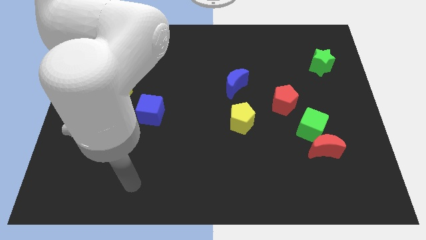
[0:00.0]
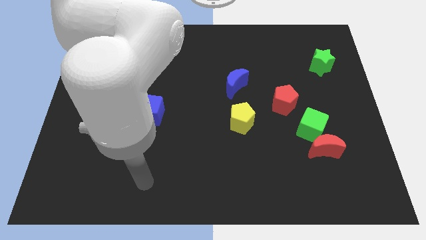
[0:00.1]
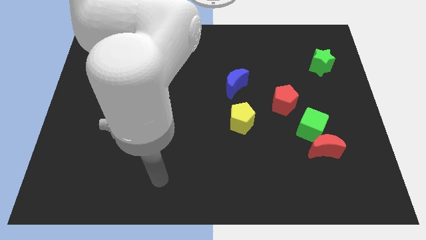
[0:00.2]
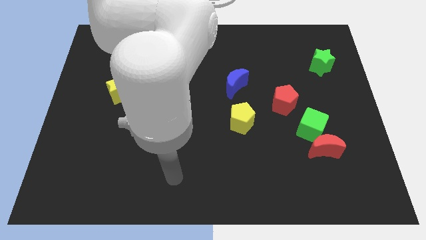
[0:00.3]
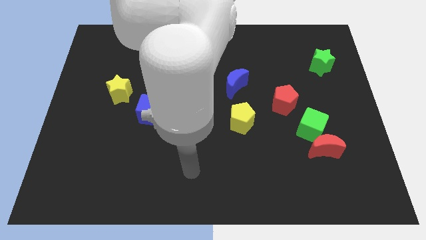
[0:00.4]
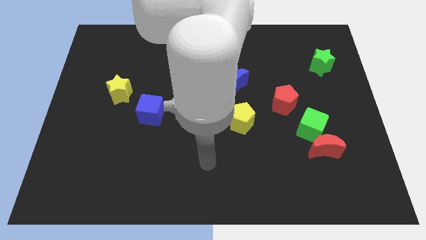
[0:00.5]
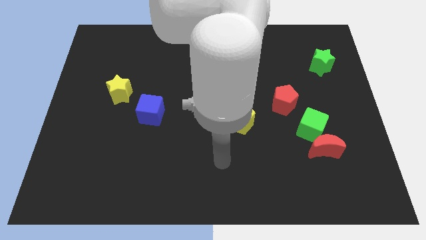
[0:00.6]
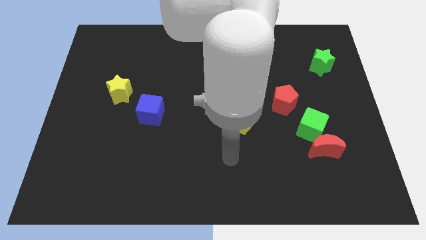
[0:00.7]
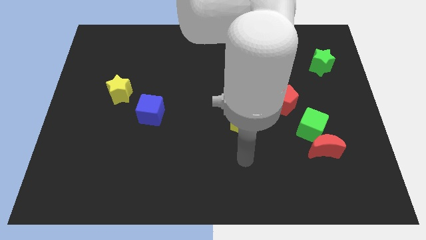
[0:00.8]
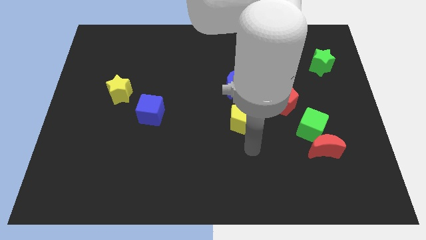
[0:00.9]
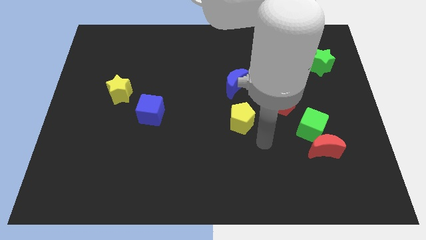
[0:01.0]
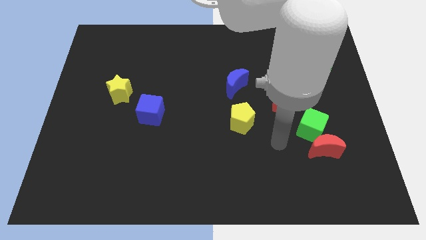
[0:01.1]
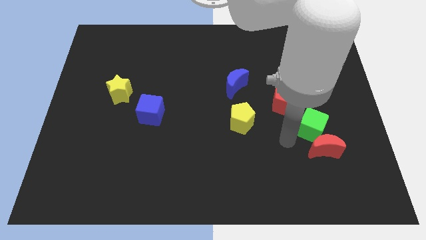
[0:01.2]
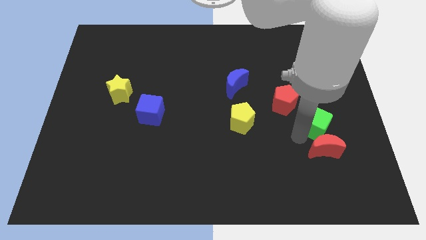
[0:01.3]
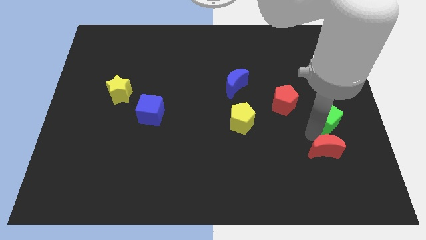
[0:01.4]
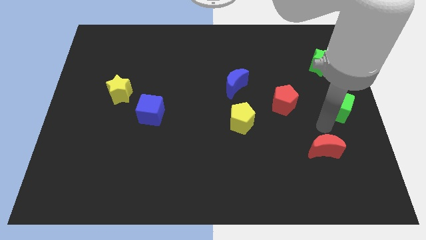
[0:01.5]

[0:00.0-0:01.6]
pull the red moon apart from the green cube

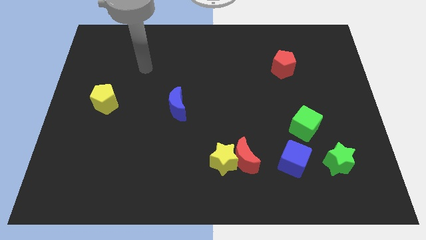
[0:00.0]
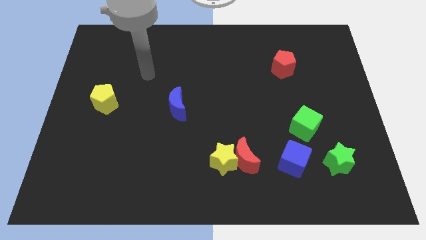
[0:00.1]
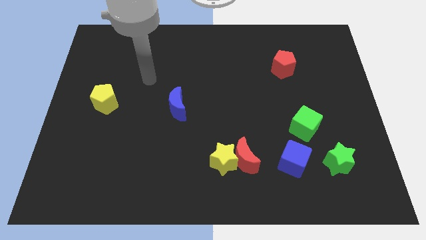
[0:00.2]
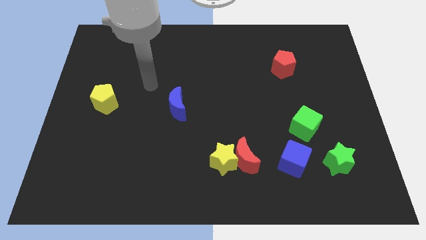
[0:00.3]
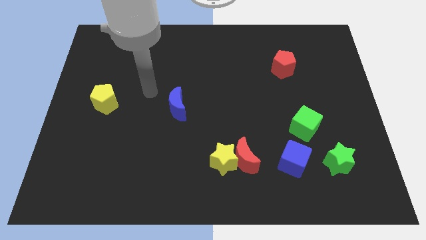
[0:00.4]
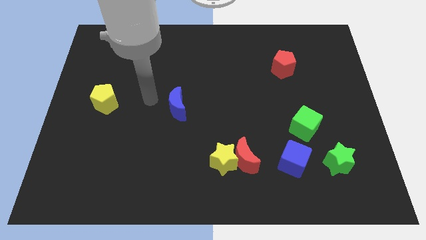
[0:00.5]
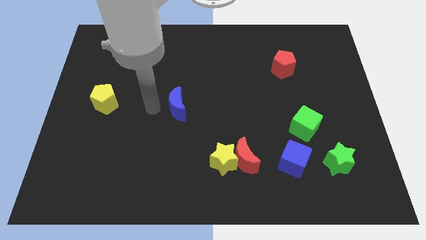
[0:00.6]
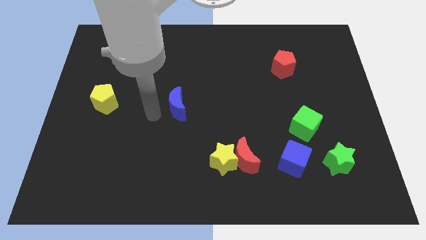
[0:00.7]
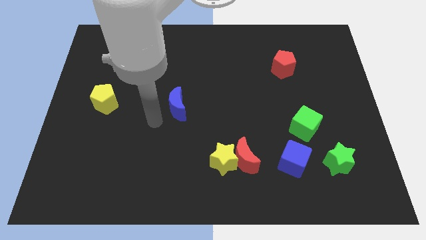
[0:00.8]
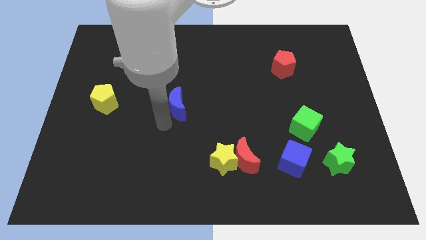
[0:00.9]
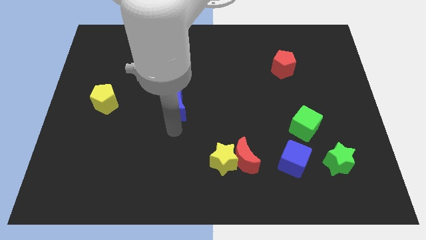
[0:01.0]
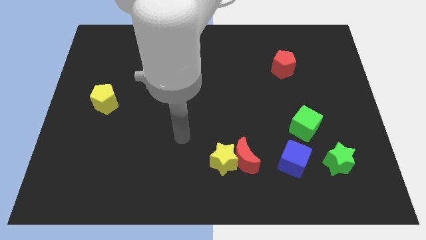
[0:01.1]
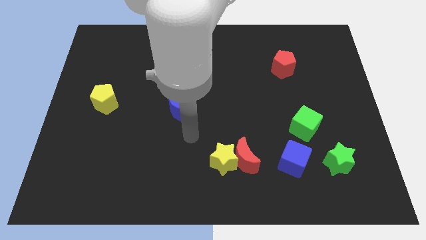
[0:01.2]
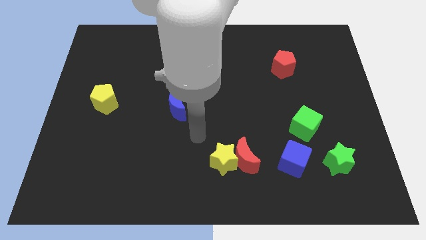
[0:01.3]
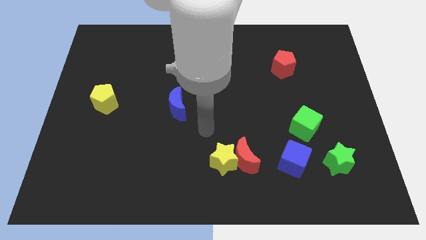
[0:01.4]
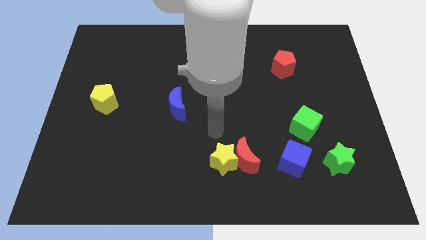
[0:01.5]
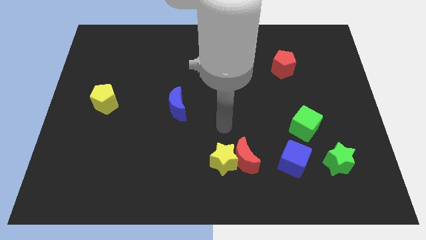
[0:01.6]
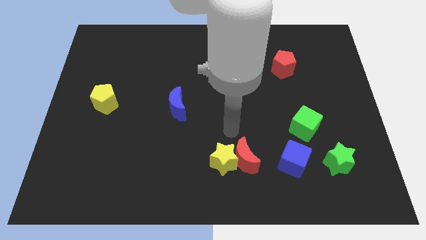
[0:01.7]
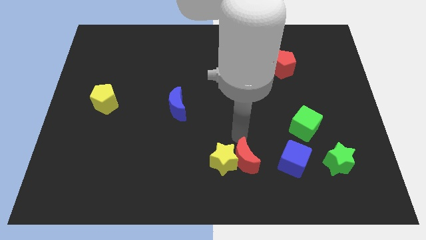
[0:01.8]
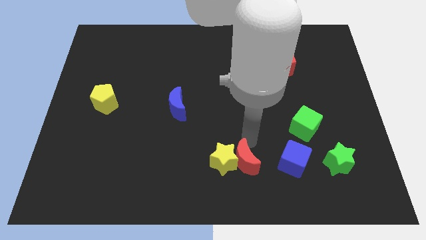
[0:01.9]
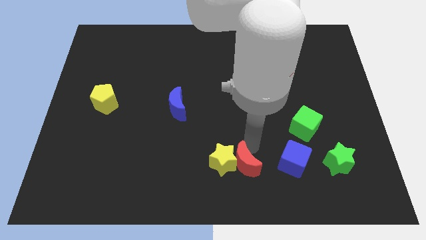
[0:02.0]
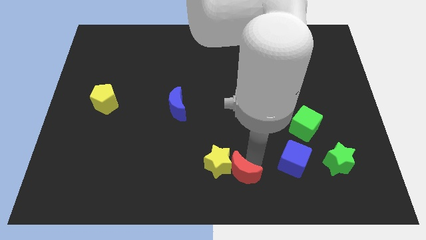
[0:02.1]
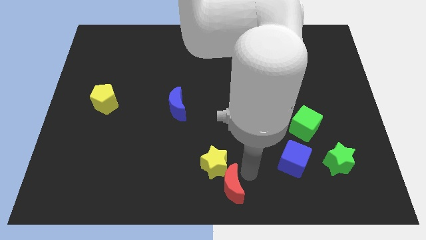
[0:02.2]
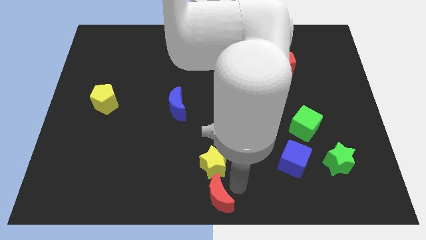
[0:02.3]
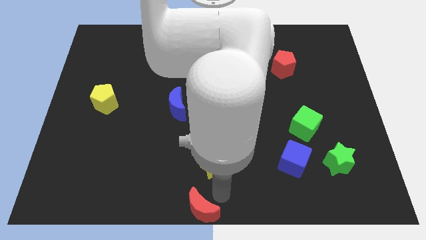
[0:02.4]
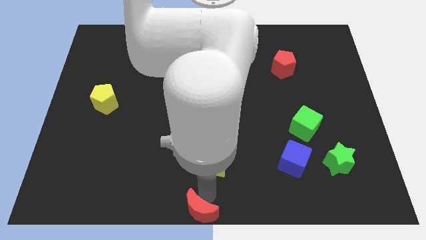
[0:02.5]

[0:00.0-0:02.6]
pull the yellow star apart from the red moon

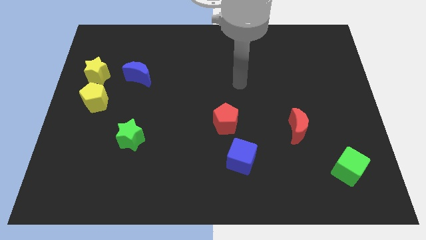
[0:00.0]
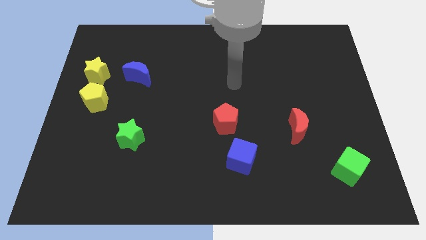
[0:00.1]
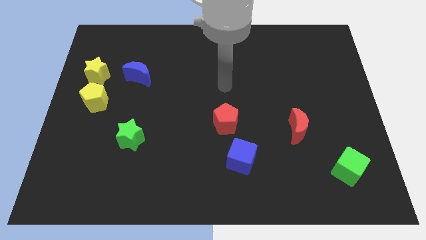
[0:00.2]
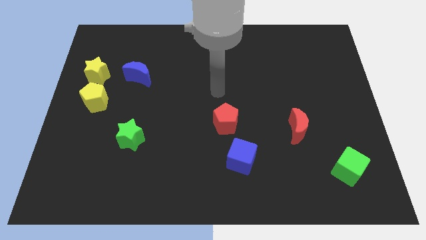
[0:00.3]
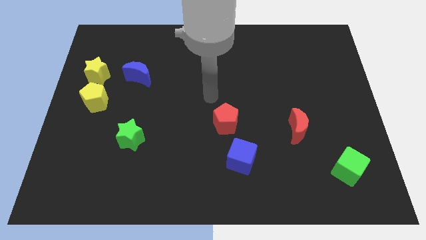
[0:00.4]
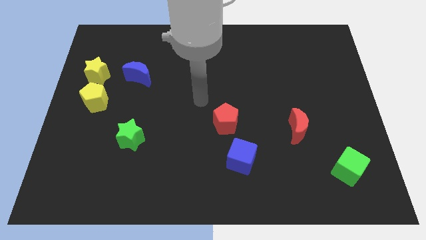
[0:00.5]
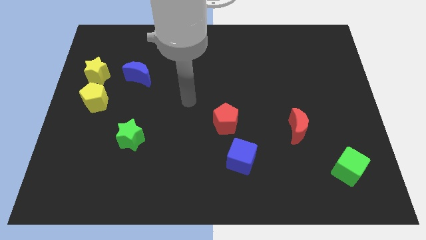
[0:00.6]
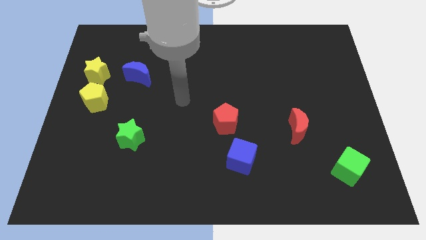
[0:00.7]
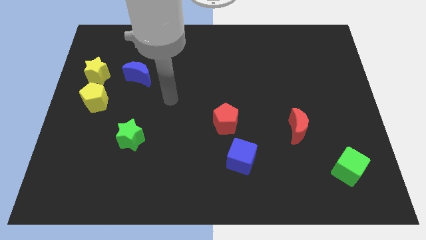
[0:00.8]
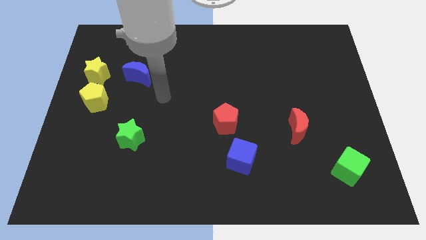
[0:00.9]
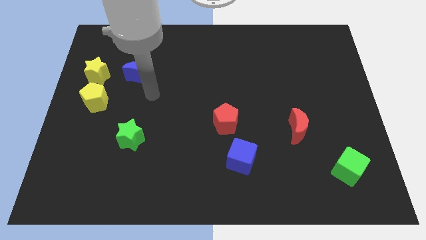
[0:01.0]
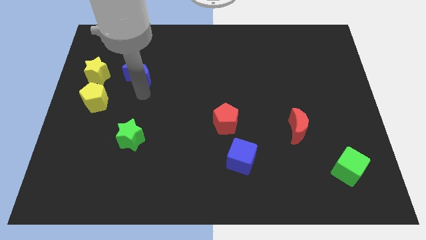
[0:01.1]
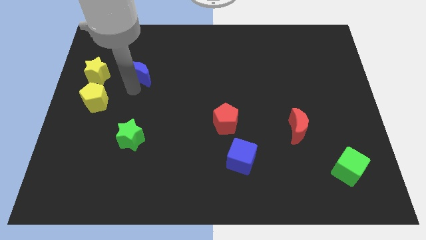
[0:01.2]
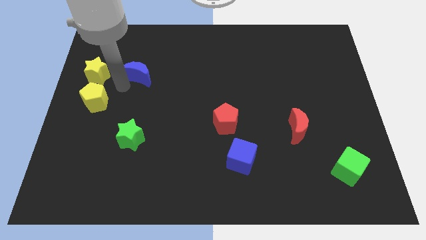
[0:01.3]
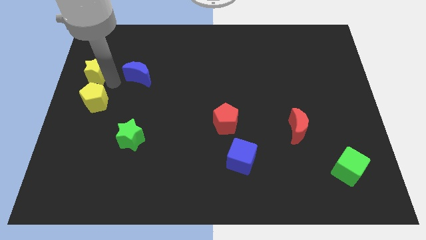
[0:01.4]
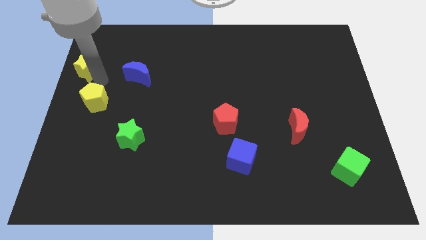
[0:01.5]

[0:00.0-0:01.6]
move the yellow pentagon away from the yellow star

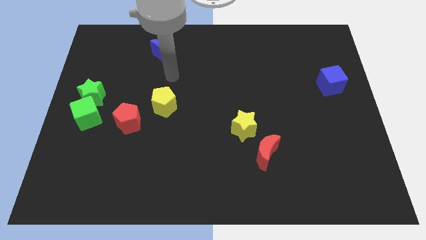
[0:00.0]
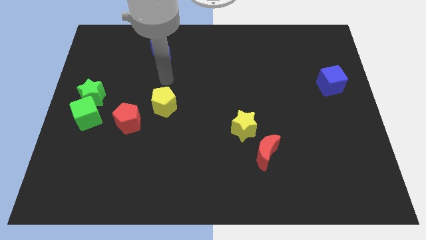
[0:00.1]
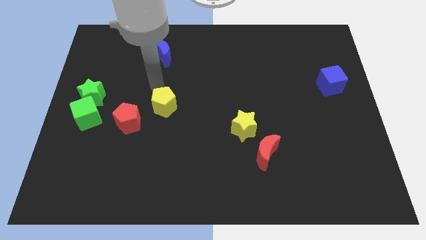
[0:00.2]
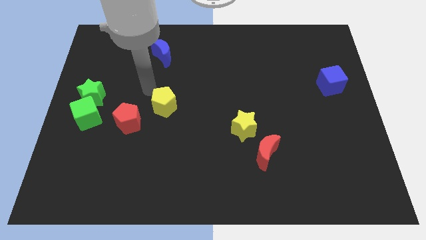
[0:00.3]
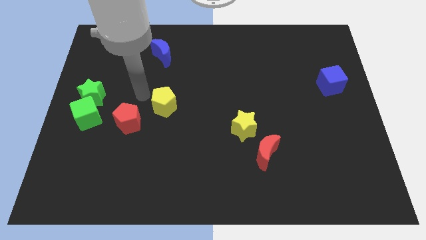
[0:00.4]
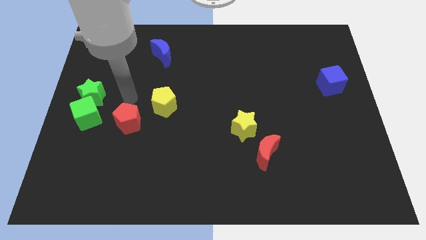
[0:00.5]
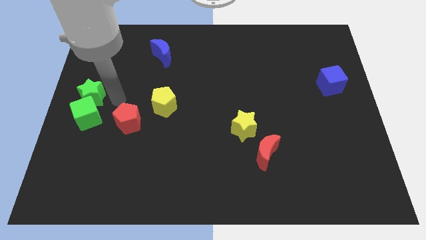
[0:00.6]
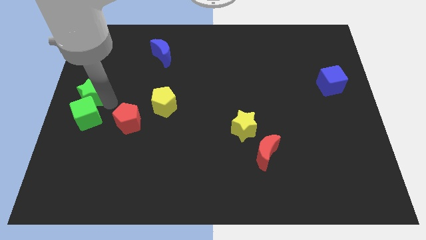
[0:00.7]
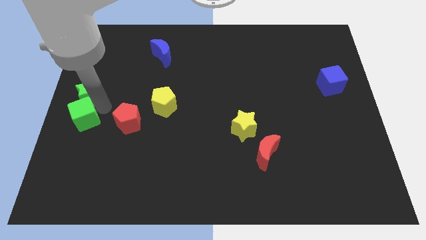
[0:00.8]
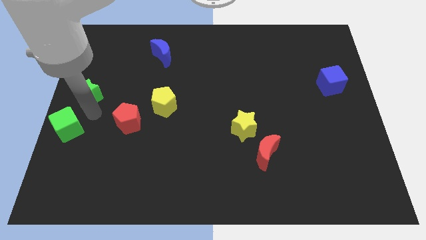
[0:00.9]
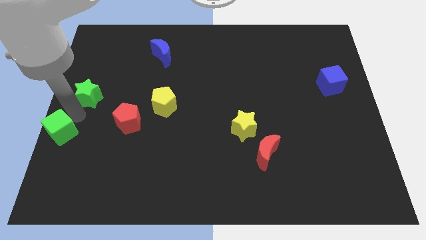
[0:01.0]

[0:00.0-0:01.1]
move the green star away from the green cube

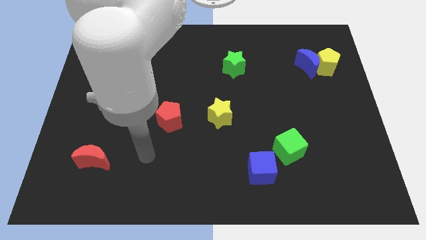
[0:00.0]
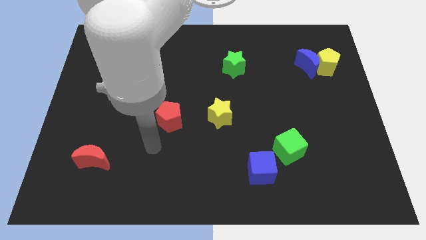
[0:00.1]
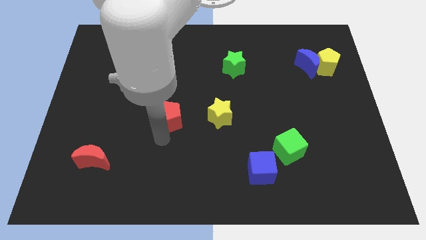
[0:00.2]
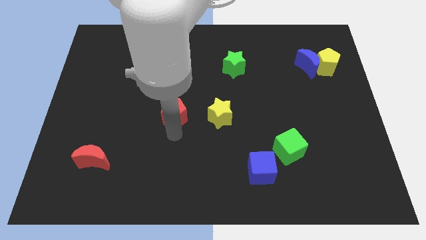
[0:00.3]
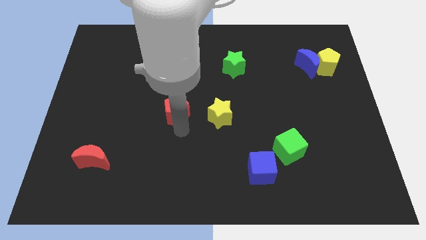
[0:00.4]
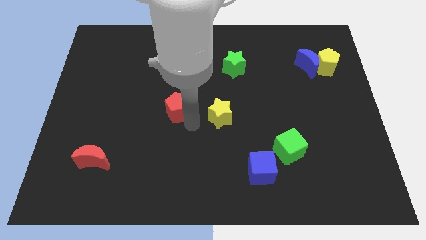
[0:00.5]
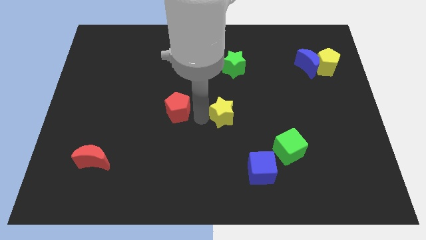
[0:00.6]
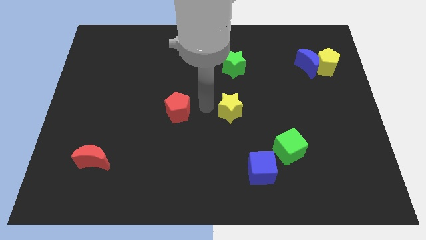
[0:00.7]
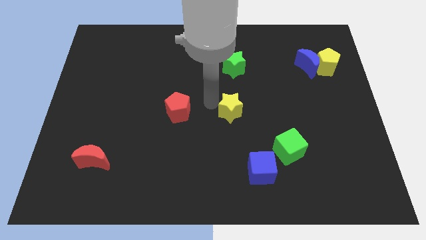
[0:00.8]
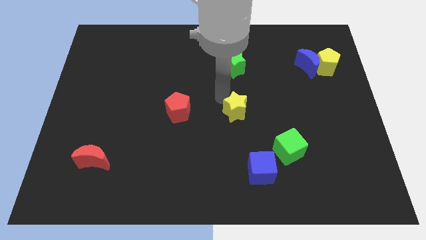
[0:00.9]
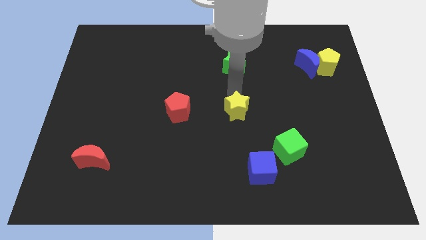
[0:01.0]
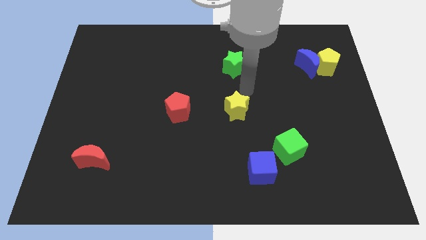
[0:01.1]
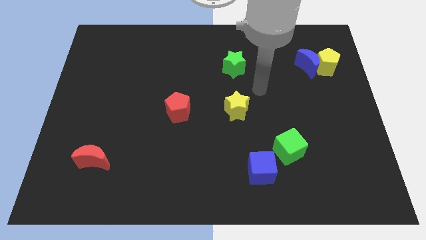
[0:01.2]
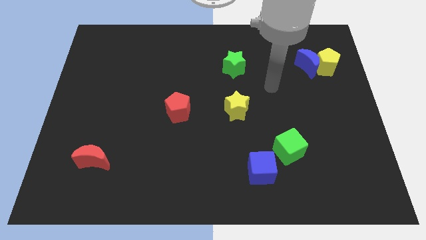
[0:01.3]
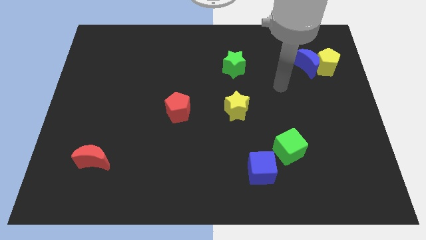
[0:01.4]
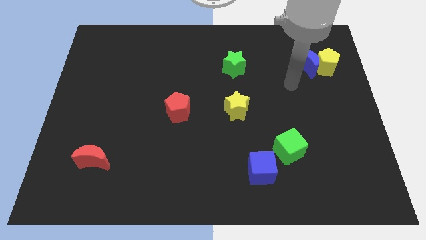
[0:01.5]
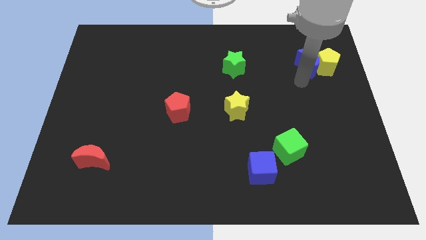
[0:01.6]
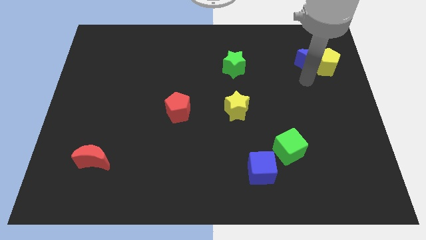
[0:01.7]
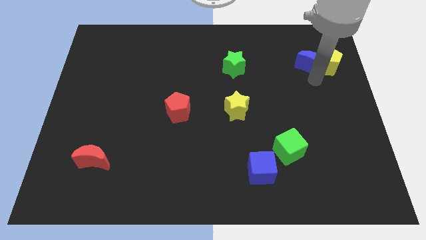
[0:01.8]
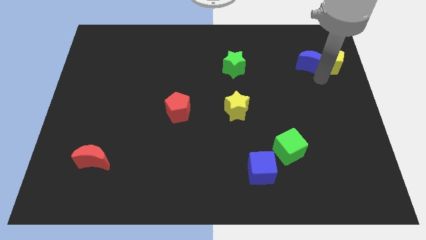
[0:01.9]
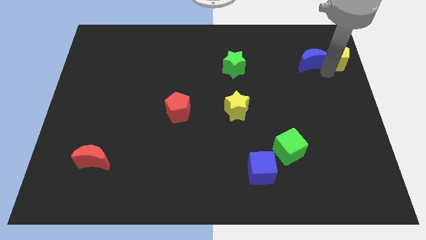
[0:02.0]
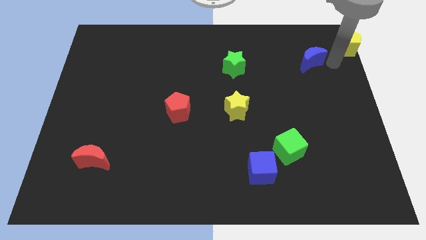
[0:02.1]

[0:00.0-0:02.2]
move the blue moon away from the yellow pentagon

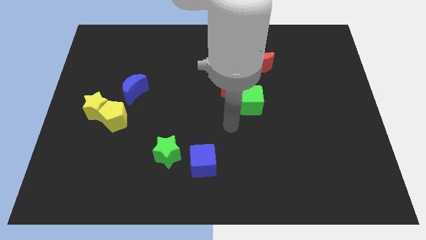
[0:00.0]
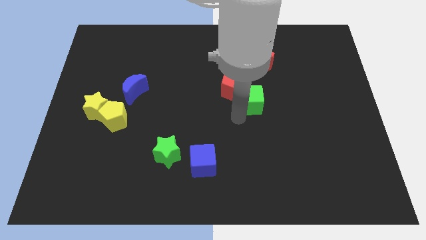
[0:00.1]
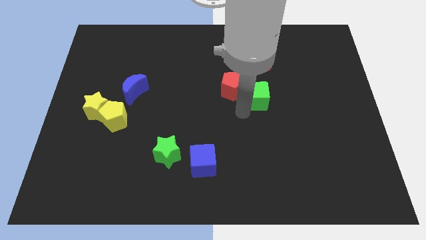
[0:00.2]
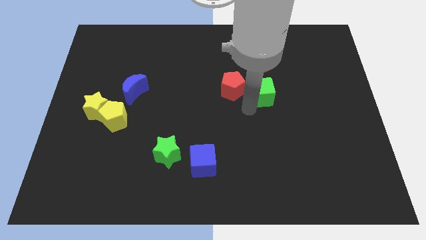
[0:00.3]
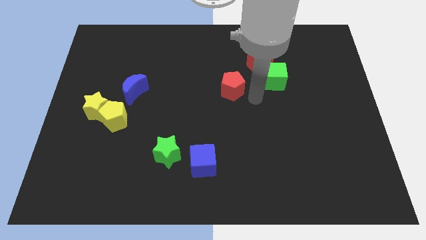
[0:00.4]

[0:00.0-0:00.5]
separate the red pentagon from the green cube
